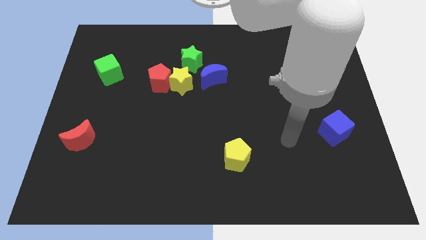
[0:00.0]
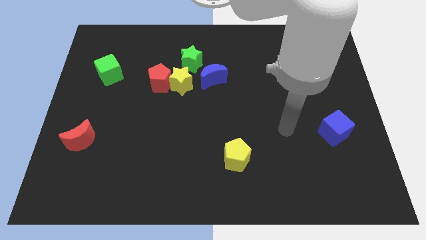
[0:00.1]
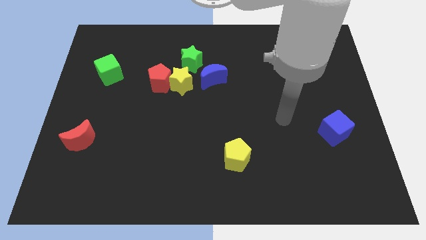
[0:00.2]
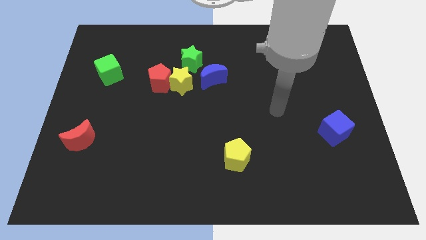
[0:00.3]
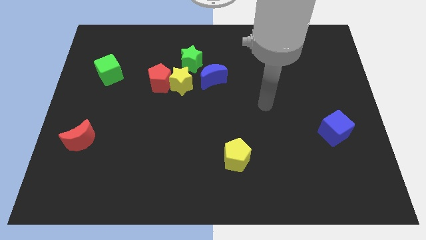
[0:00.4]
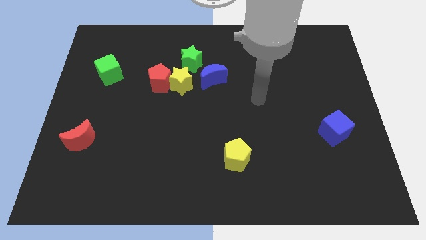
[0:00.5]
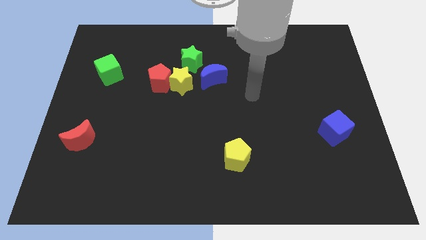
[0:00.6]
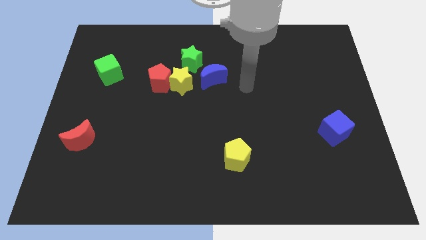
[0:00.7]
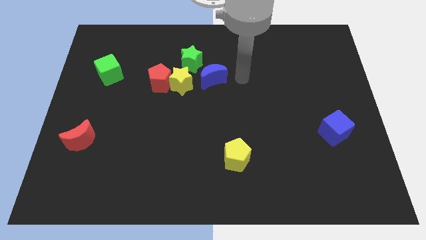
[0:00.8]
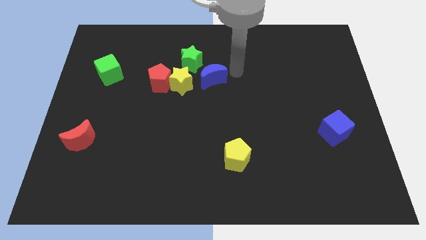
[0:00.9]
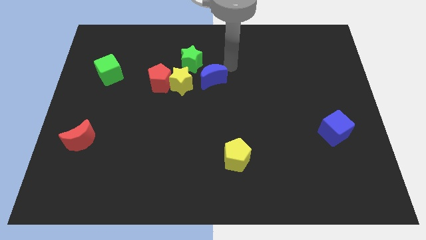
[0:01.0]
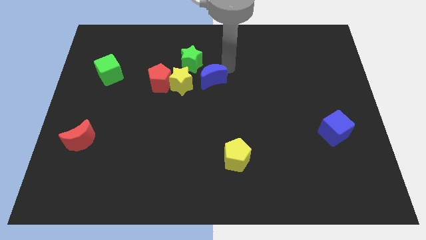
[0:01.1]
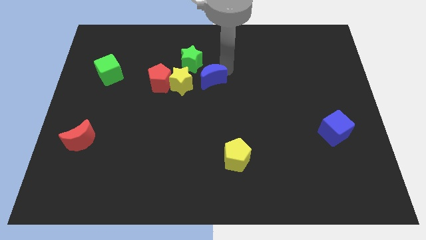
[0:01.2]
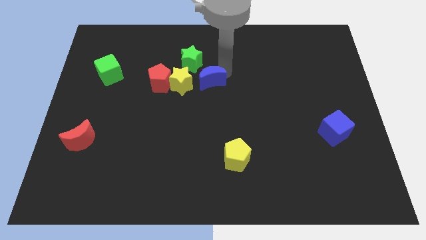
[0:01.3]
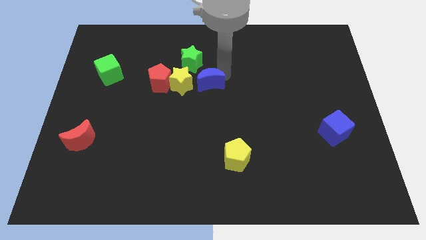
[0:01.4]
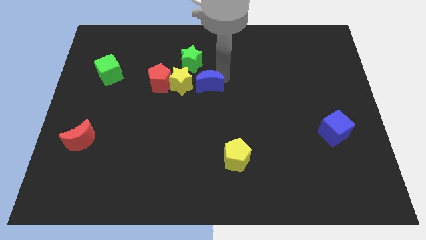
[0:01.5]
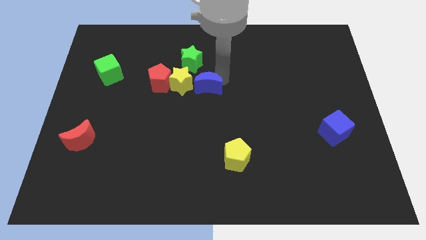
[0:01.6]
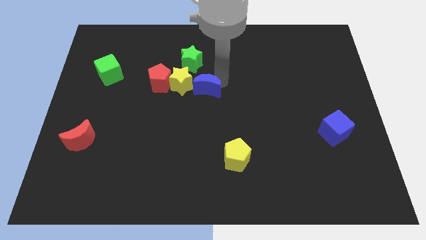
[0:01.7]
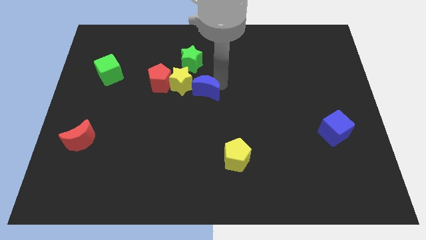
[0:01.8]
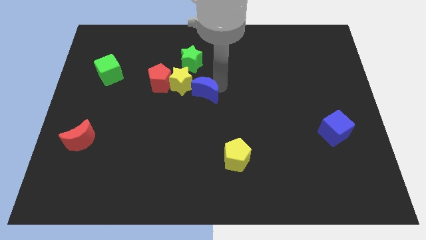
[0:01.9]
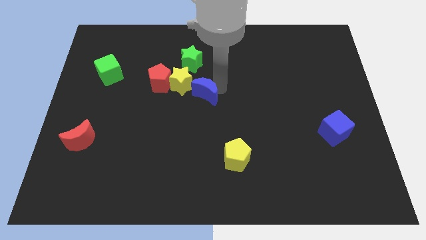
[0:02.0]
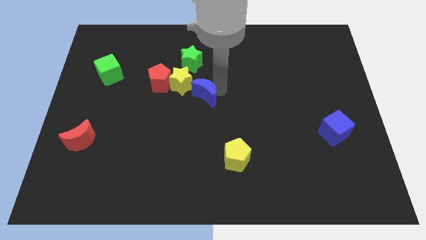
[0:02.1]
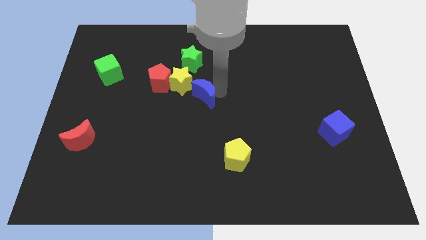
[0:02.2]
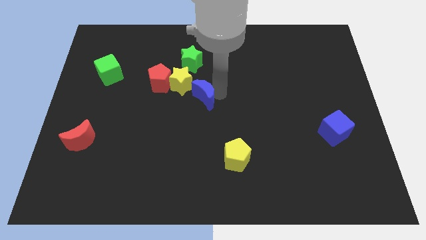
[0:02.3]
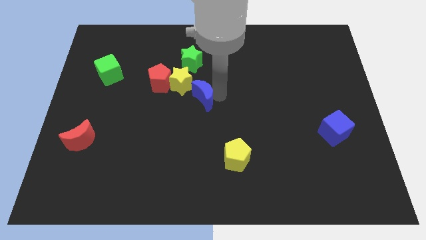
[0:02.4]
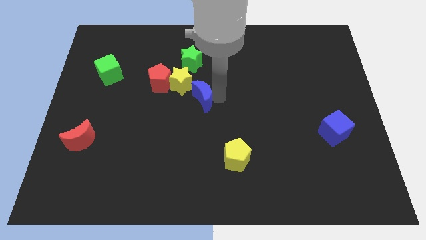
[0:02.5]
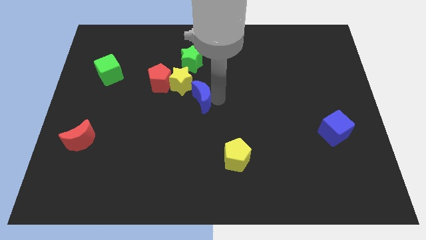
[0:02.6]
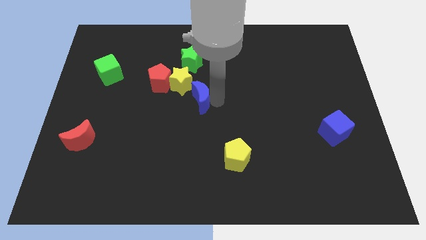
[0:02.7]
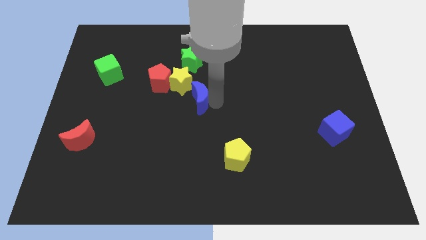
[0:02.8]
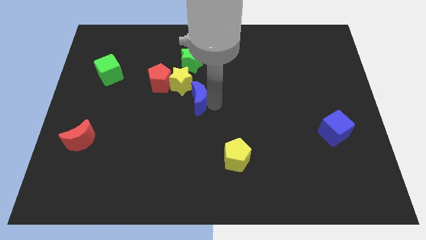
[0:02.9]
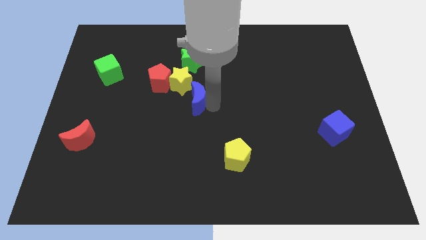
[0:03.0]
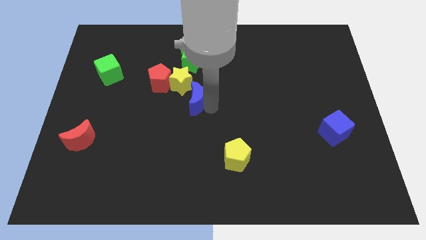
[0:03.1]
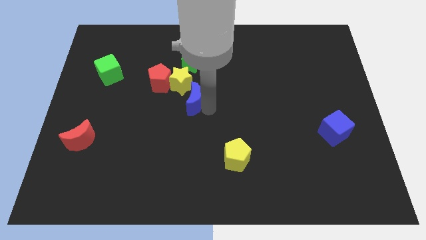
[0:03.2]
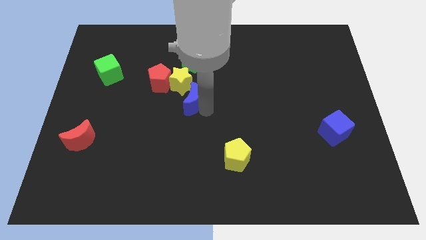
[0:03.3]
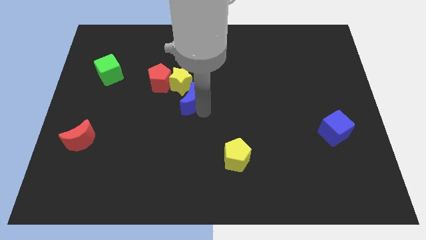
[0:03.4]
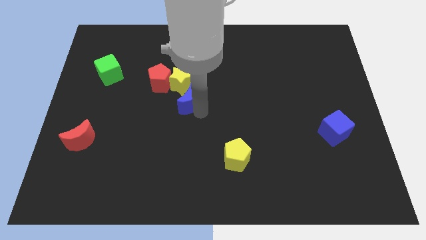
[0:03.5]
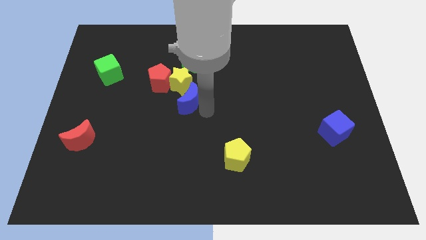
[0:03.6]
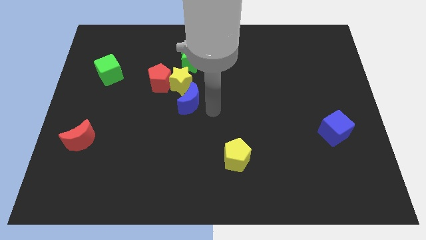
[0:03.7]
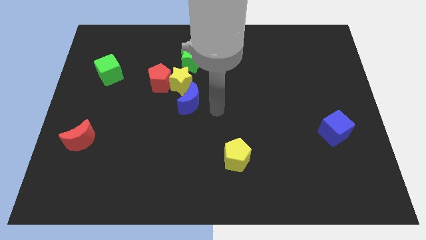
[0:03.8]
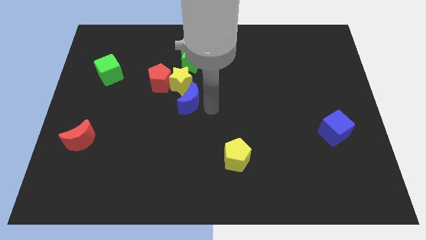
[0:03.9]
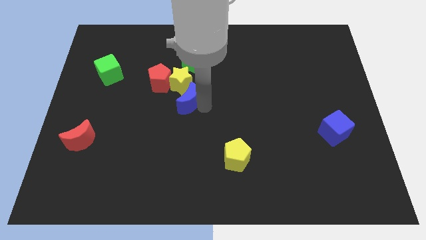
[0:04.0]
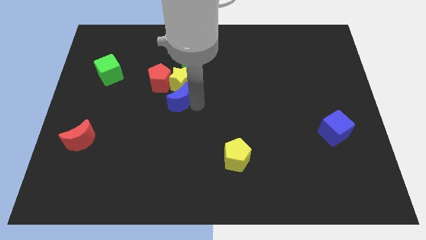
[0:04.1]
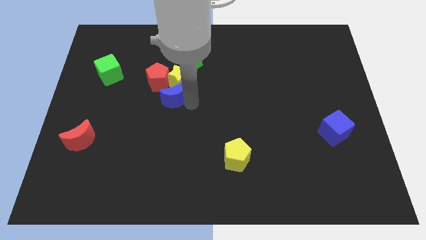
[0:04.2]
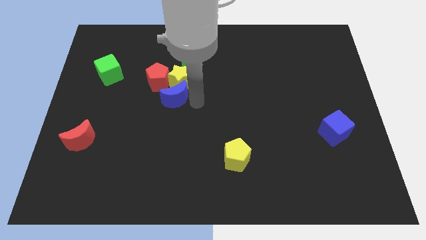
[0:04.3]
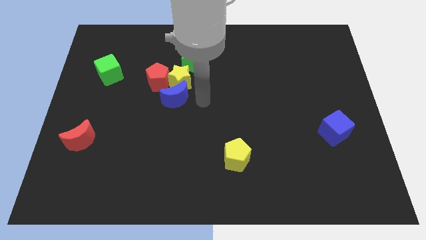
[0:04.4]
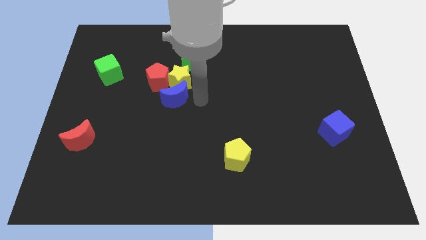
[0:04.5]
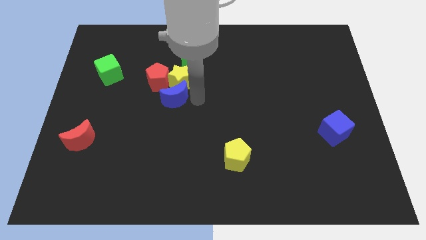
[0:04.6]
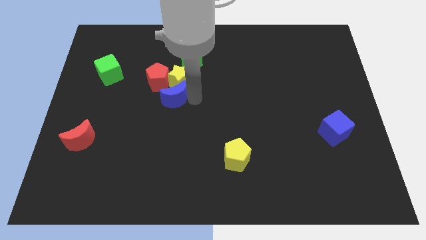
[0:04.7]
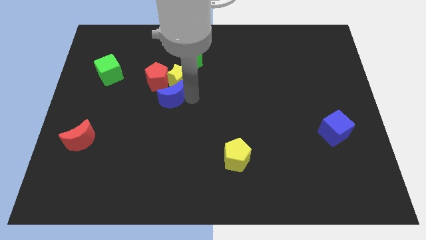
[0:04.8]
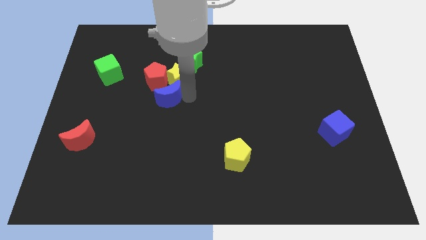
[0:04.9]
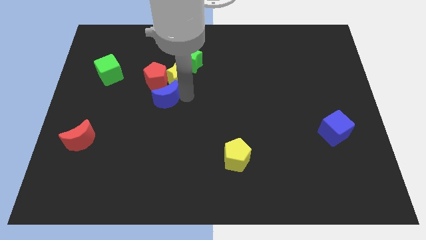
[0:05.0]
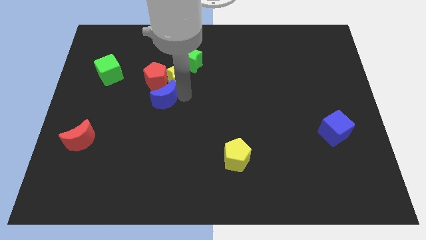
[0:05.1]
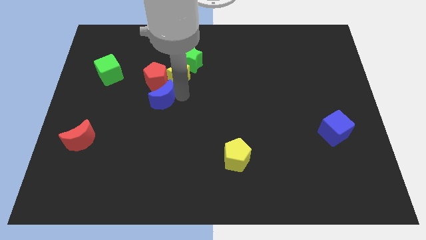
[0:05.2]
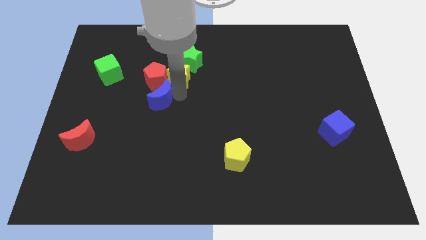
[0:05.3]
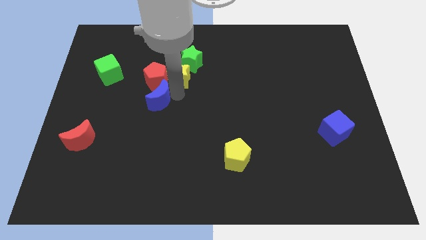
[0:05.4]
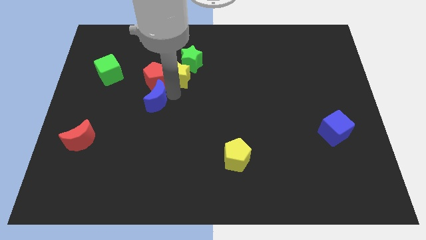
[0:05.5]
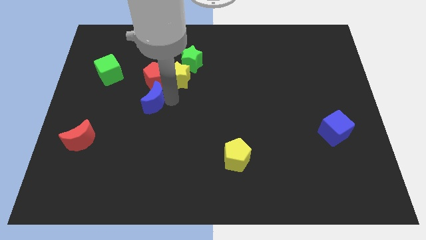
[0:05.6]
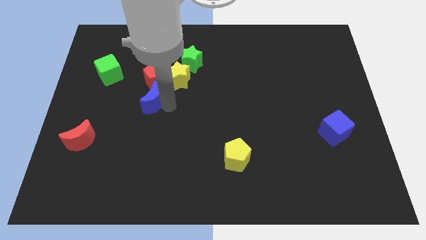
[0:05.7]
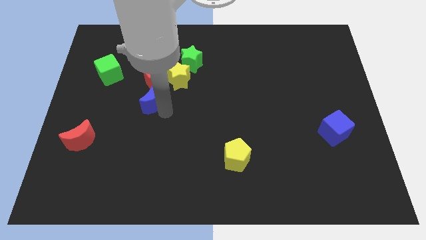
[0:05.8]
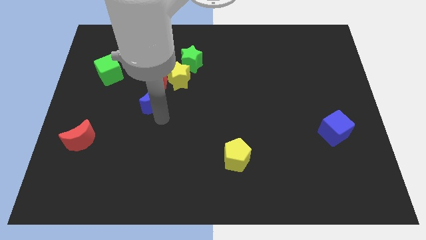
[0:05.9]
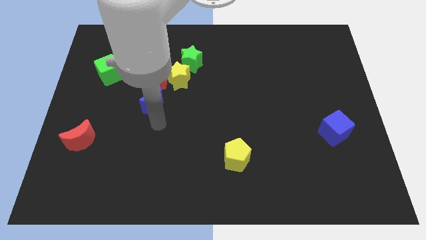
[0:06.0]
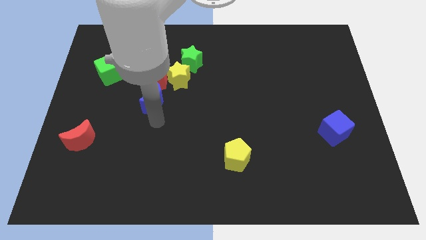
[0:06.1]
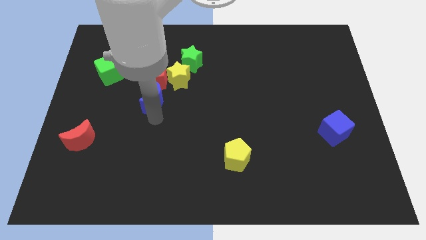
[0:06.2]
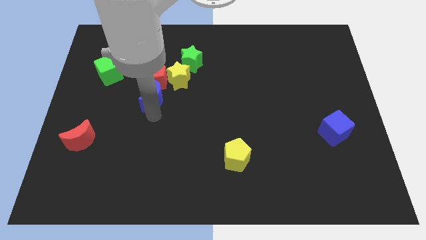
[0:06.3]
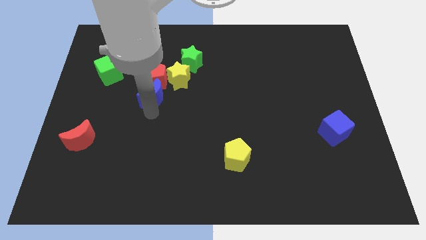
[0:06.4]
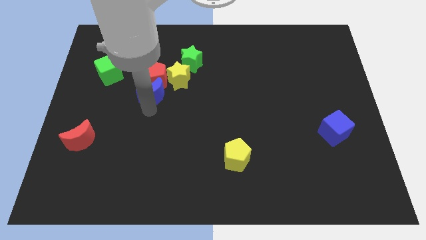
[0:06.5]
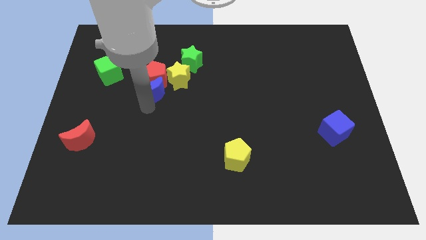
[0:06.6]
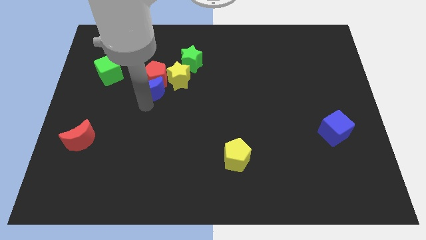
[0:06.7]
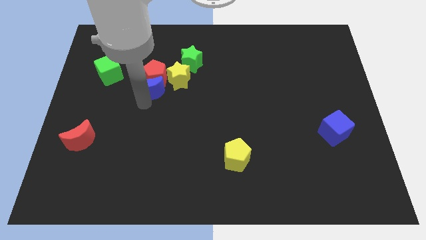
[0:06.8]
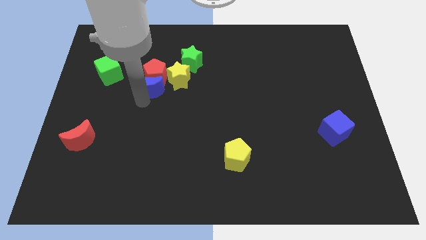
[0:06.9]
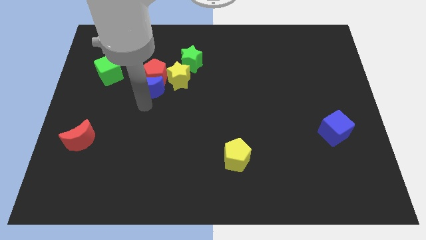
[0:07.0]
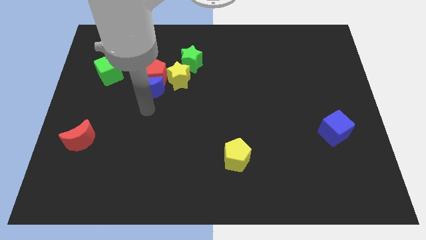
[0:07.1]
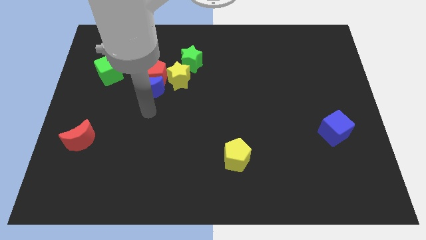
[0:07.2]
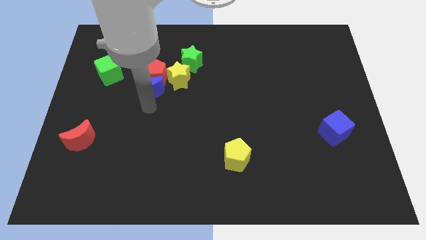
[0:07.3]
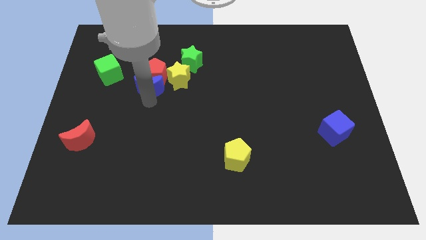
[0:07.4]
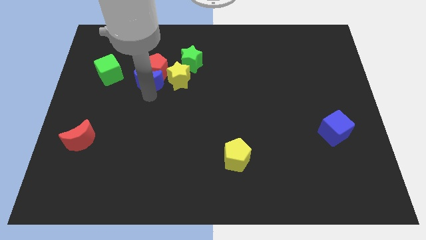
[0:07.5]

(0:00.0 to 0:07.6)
push the blue moon to the right side of the green cube
